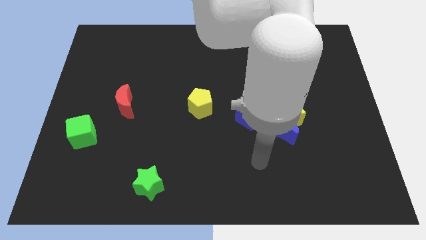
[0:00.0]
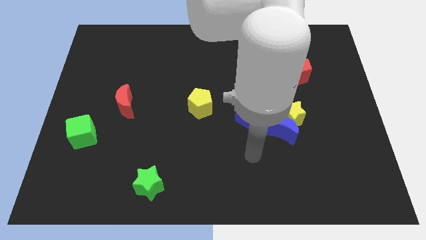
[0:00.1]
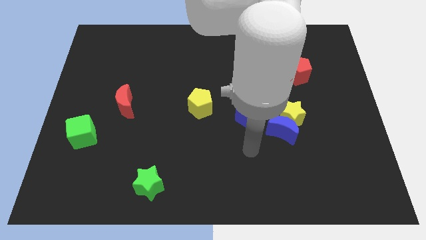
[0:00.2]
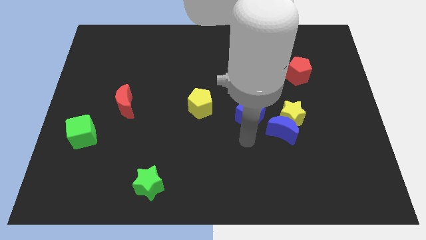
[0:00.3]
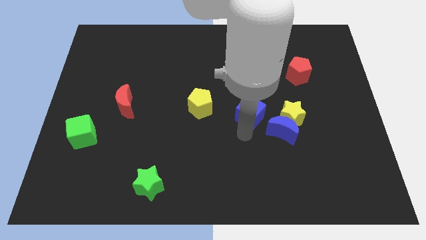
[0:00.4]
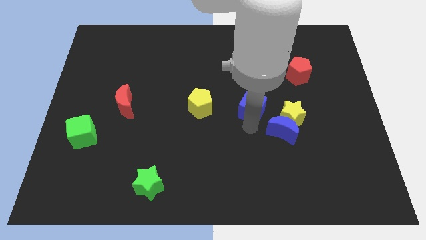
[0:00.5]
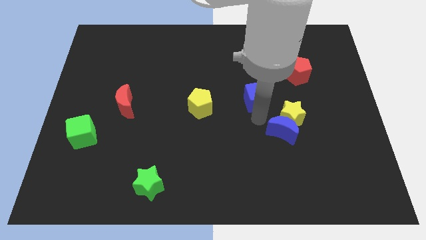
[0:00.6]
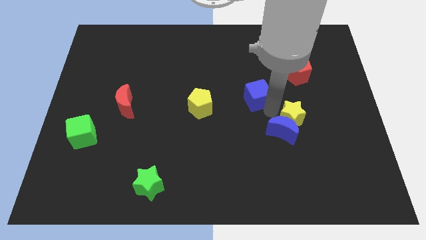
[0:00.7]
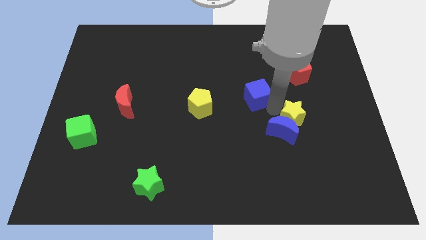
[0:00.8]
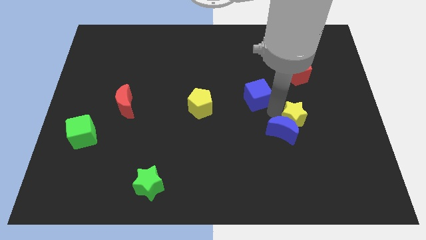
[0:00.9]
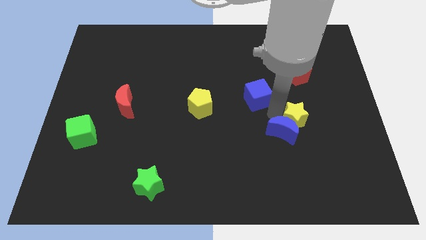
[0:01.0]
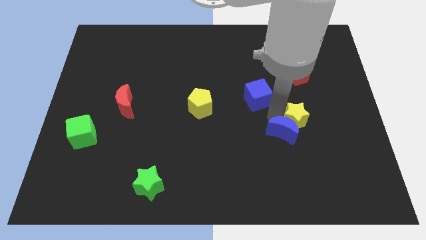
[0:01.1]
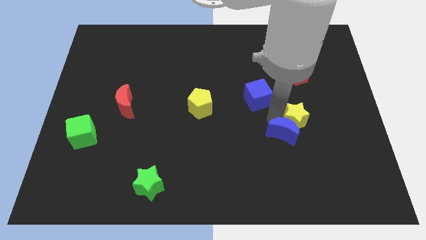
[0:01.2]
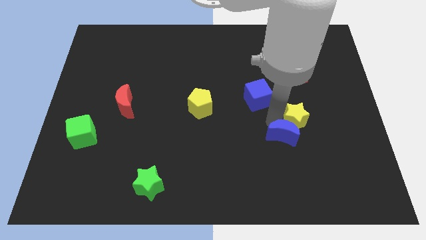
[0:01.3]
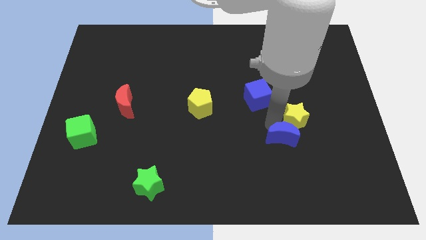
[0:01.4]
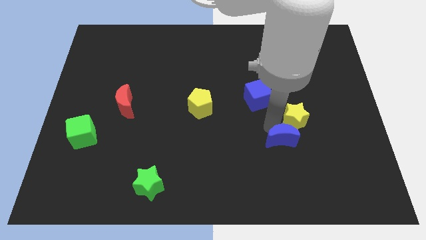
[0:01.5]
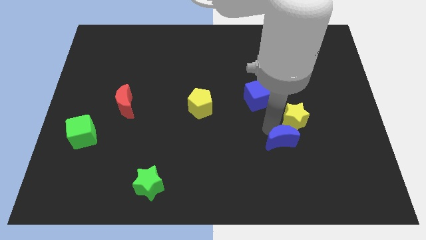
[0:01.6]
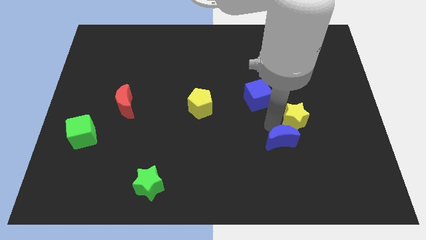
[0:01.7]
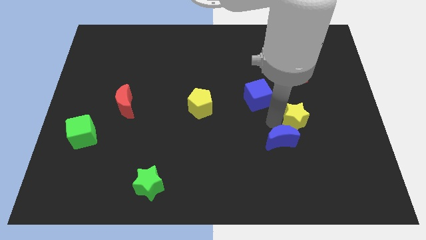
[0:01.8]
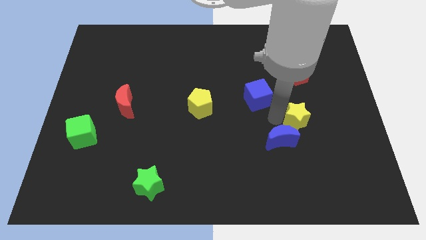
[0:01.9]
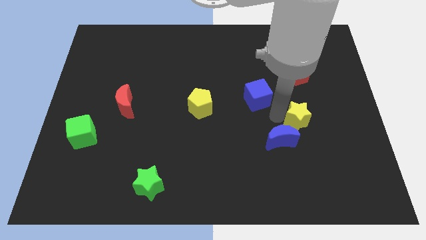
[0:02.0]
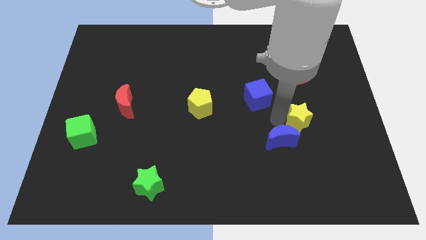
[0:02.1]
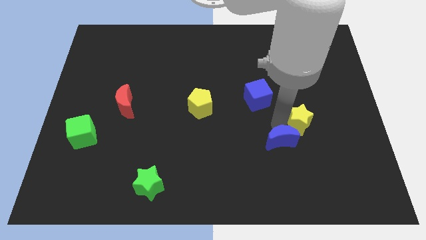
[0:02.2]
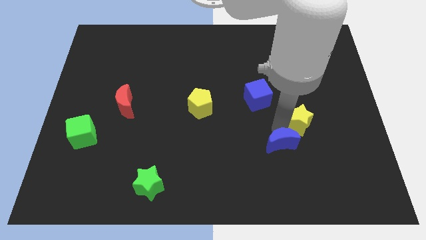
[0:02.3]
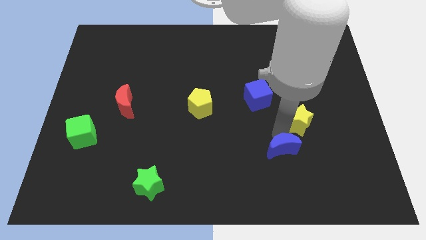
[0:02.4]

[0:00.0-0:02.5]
move the blue moon away from the yellow star and blue cube

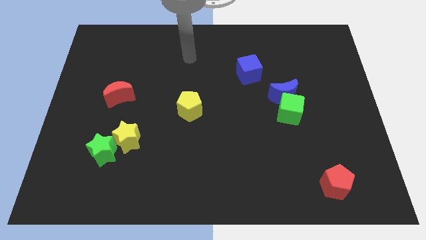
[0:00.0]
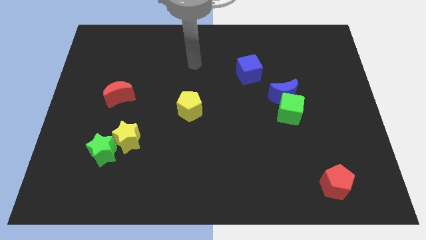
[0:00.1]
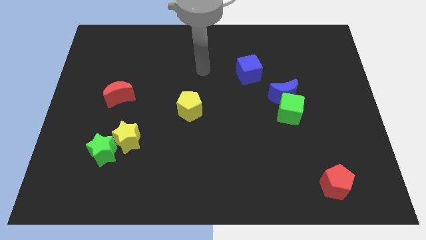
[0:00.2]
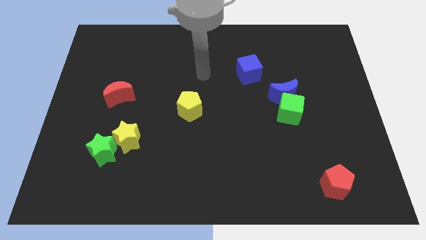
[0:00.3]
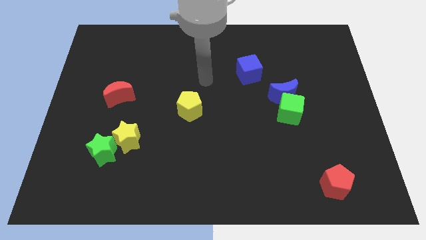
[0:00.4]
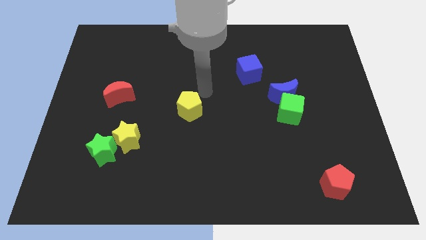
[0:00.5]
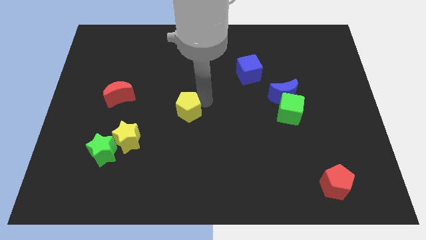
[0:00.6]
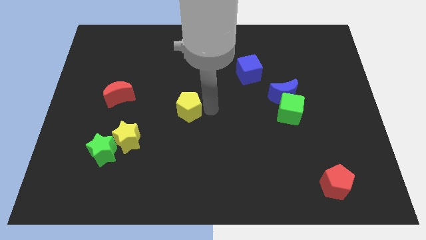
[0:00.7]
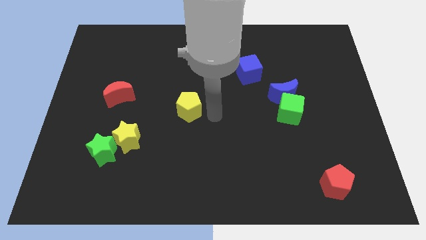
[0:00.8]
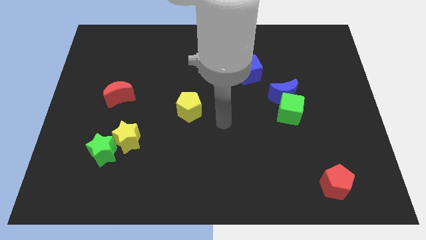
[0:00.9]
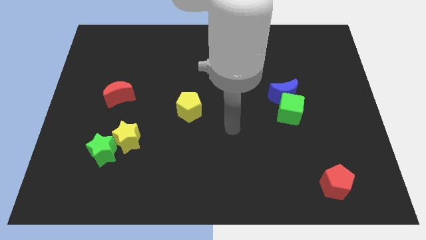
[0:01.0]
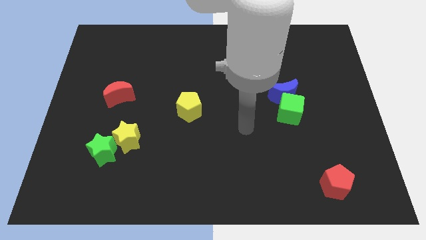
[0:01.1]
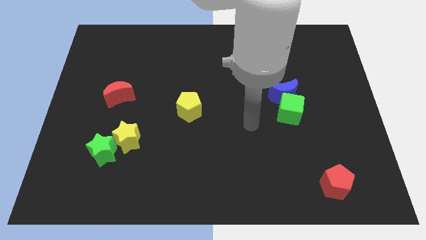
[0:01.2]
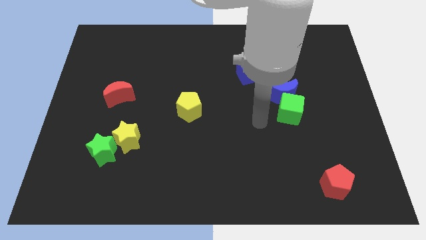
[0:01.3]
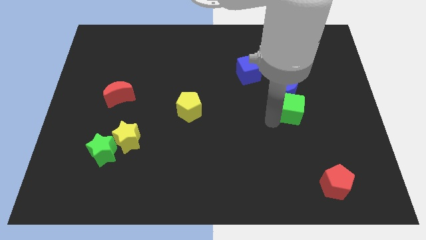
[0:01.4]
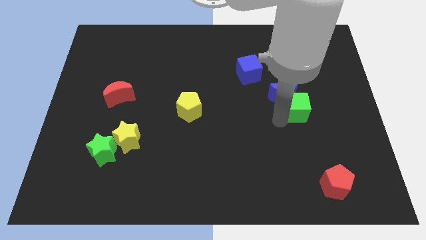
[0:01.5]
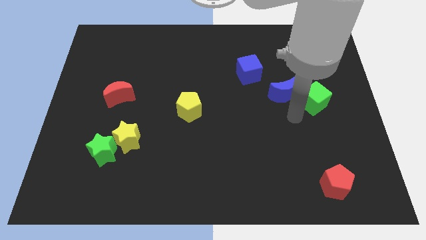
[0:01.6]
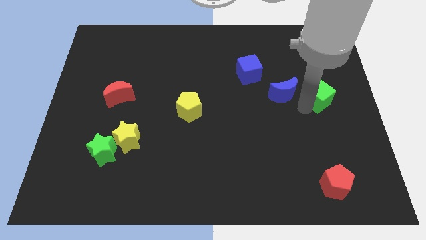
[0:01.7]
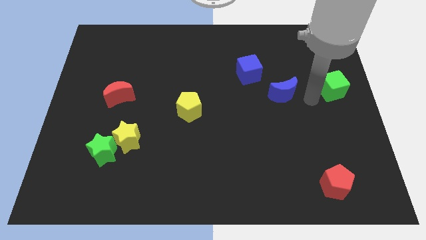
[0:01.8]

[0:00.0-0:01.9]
separate the blue moon from the green cube

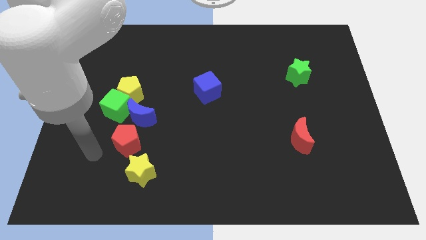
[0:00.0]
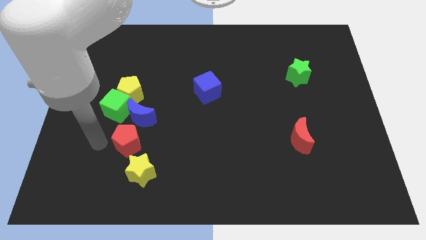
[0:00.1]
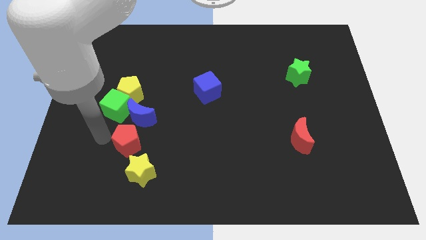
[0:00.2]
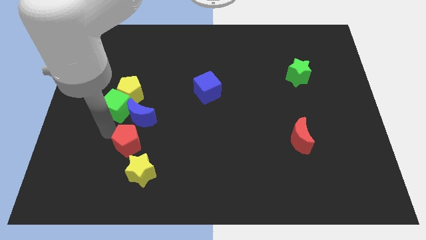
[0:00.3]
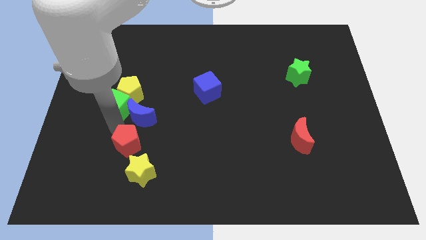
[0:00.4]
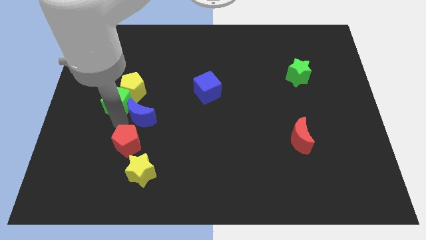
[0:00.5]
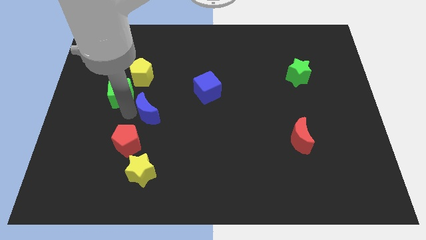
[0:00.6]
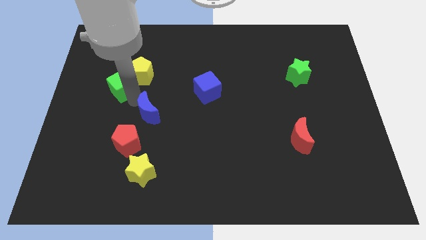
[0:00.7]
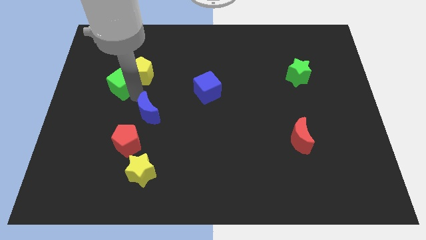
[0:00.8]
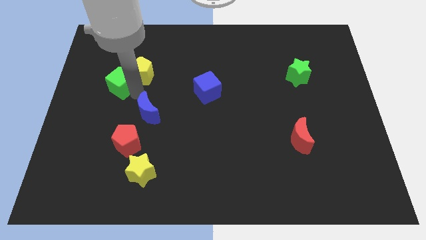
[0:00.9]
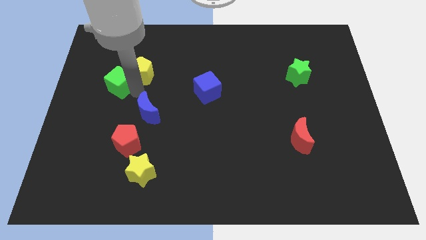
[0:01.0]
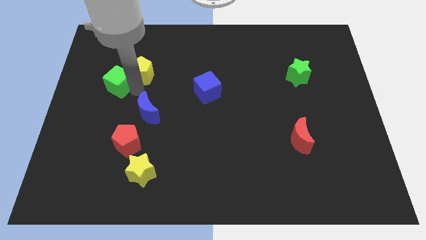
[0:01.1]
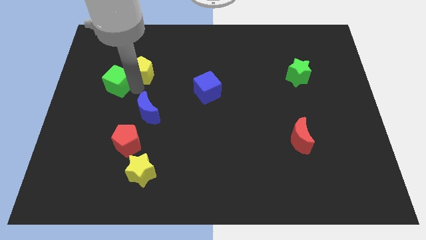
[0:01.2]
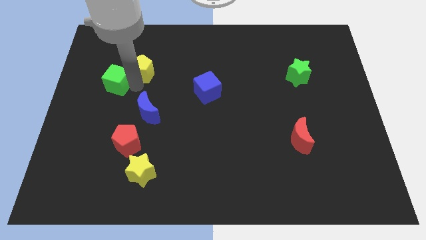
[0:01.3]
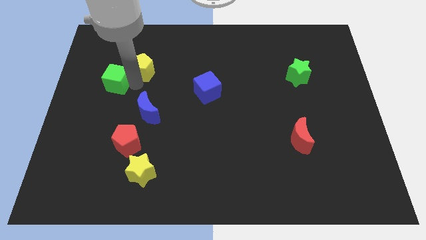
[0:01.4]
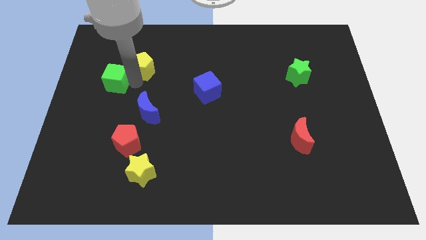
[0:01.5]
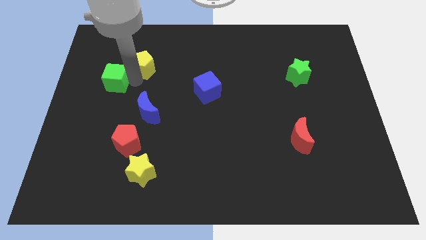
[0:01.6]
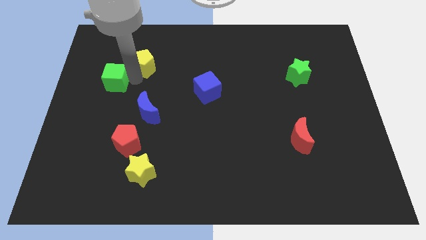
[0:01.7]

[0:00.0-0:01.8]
move the yellow pentagon away from the green cube and blue moon

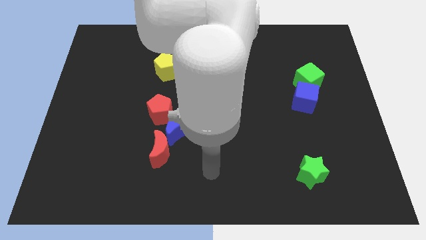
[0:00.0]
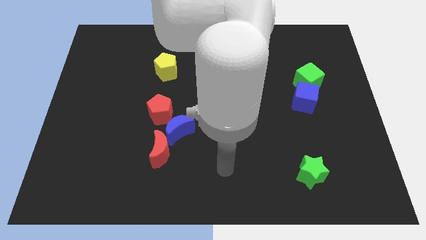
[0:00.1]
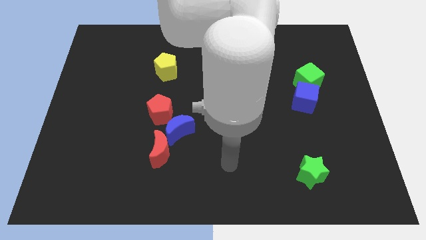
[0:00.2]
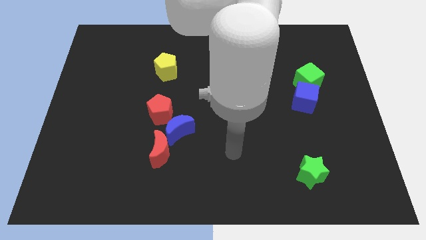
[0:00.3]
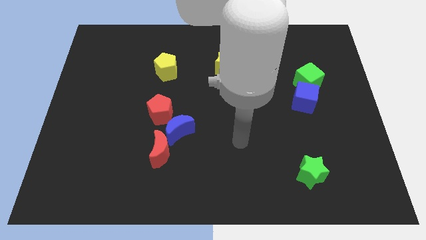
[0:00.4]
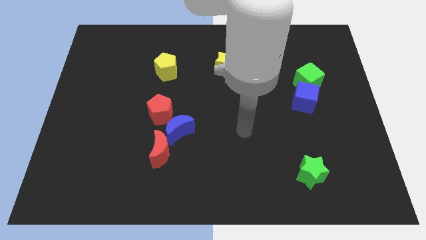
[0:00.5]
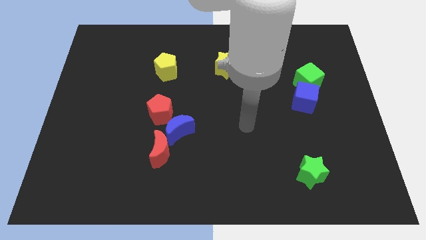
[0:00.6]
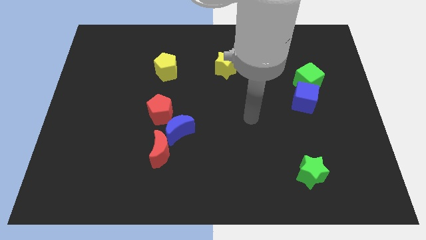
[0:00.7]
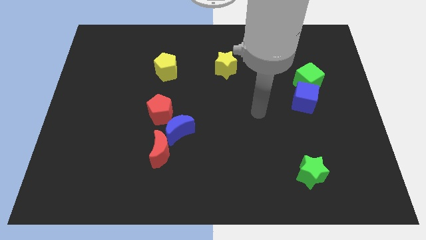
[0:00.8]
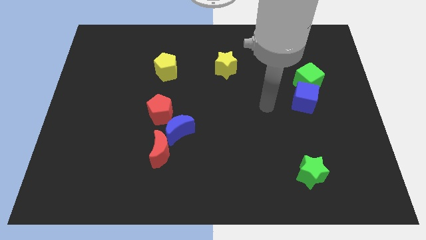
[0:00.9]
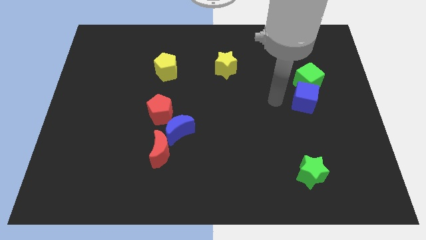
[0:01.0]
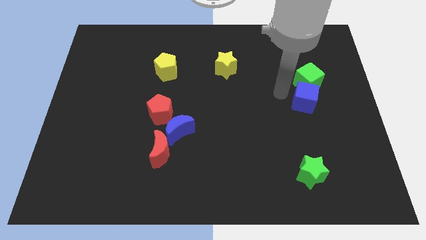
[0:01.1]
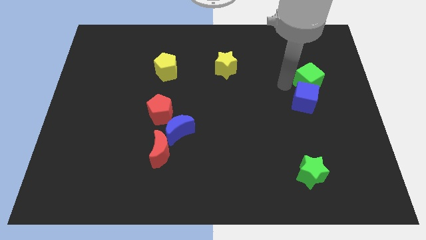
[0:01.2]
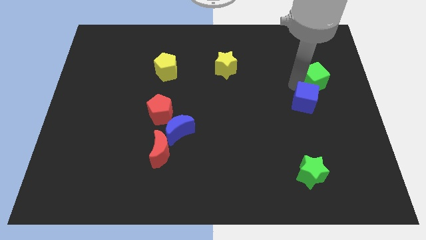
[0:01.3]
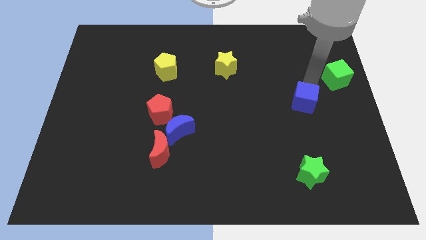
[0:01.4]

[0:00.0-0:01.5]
pull the blue cube apart from the green cube

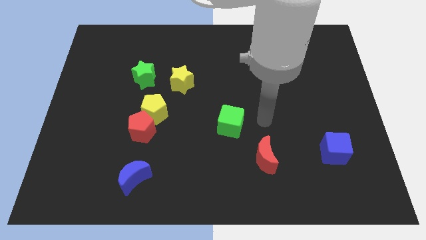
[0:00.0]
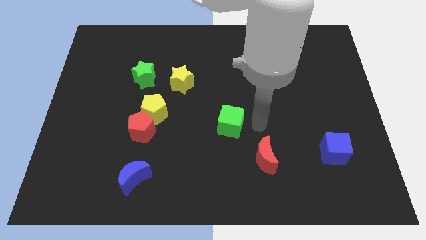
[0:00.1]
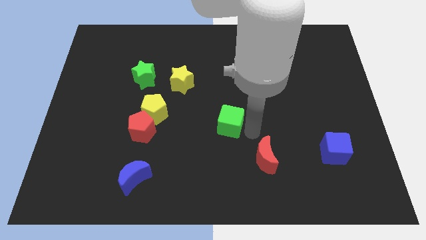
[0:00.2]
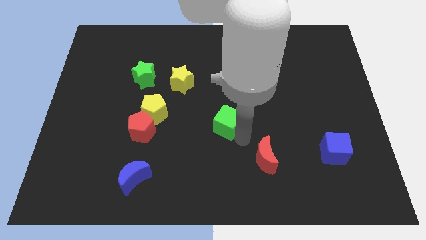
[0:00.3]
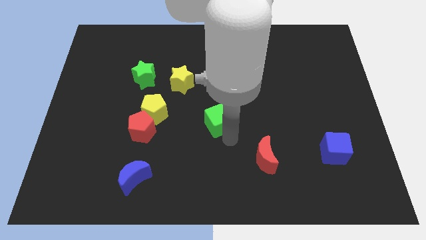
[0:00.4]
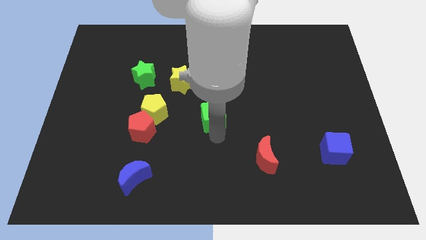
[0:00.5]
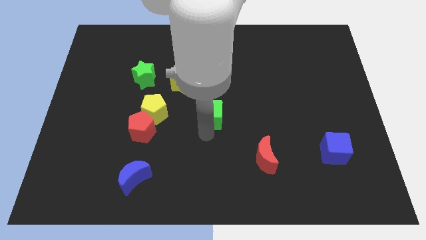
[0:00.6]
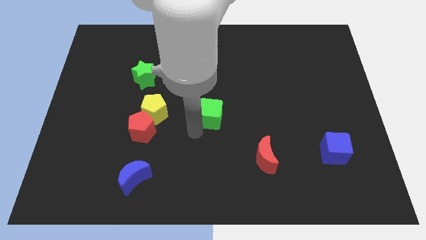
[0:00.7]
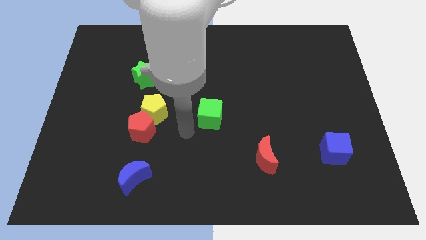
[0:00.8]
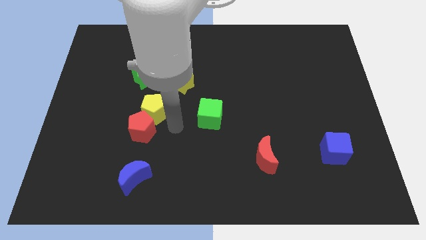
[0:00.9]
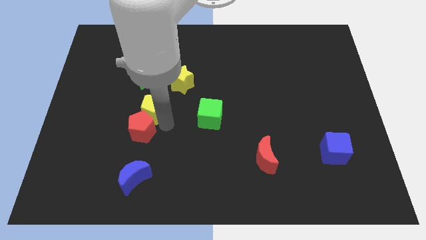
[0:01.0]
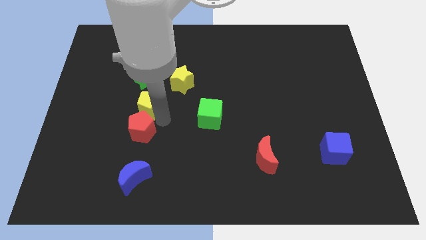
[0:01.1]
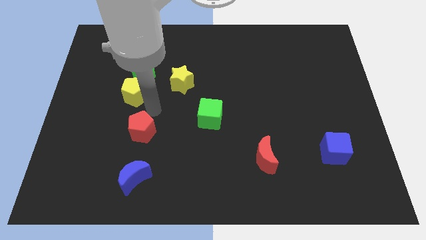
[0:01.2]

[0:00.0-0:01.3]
pull the red pentagon apart from the yellow pentagon

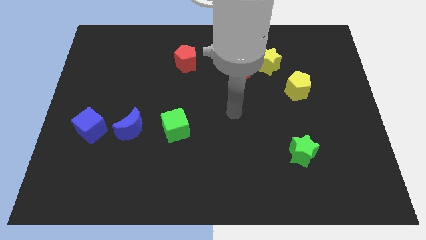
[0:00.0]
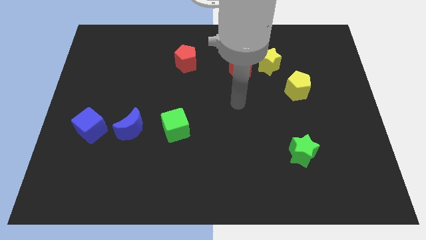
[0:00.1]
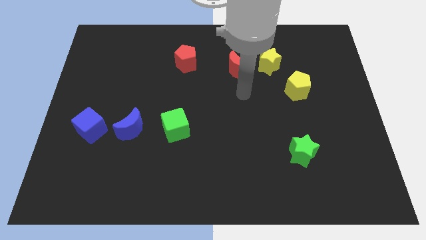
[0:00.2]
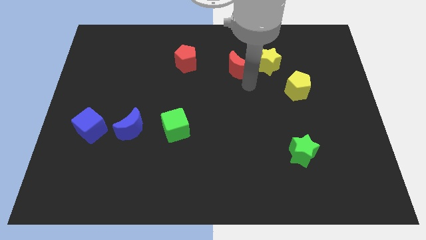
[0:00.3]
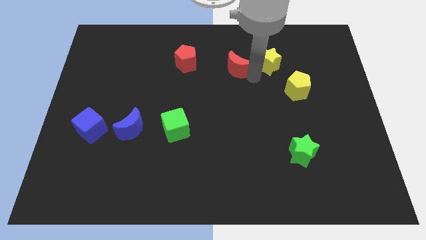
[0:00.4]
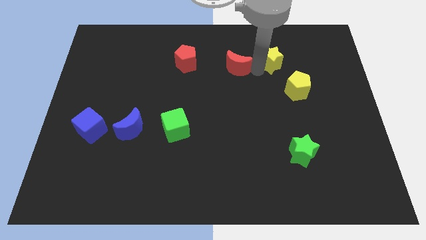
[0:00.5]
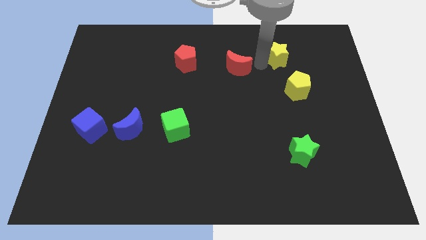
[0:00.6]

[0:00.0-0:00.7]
pull the red moon apart from the yellow star
